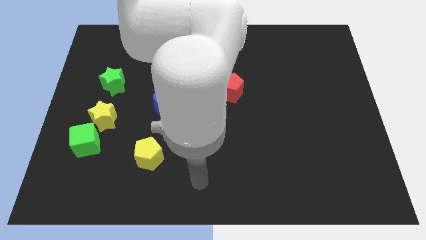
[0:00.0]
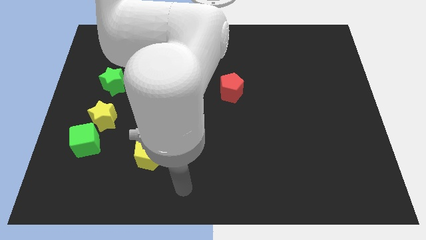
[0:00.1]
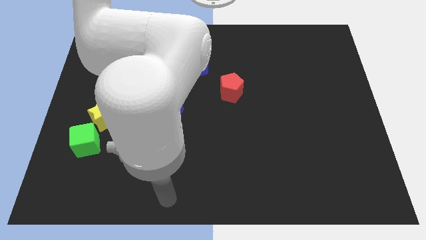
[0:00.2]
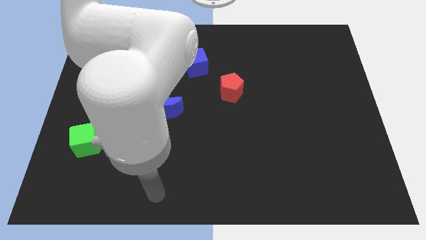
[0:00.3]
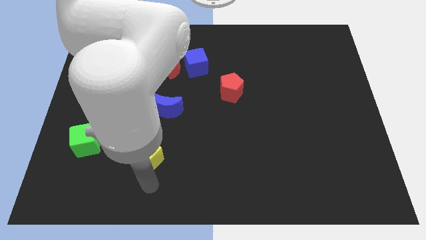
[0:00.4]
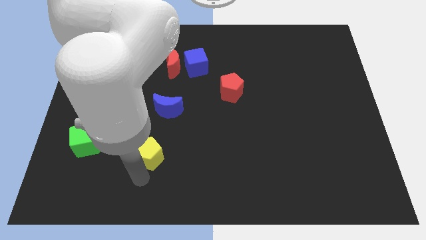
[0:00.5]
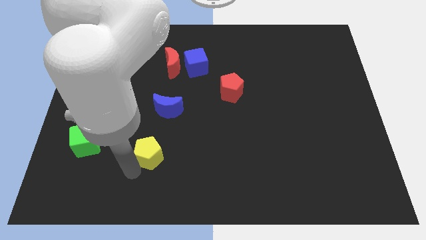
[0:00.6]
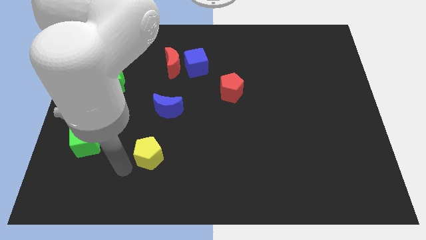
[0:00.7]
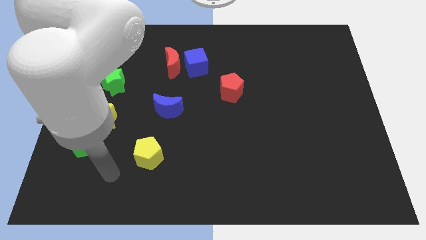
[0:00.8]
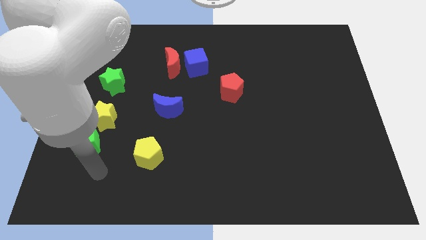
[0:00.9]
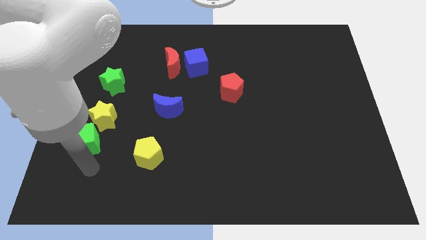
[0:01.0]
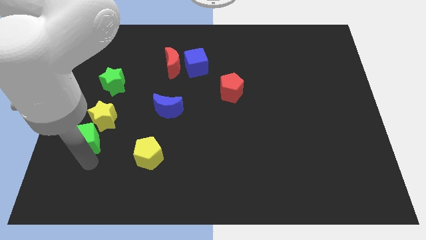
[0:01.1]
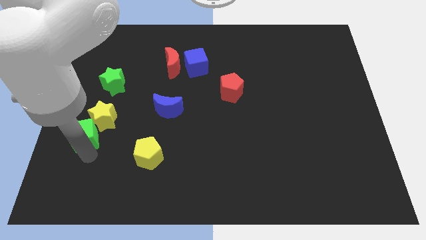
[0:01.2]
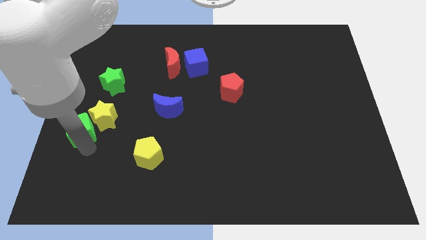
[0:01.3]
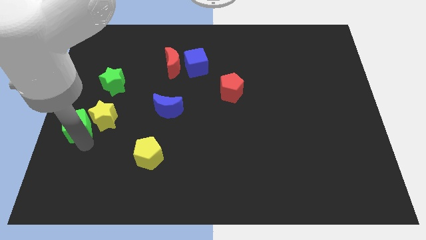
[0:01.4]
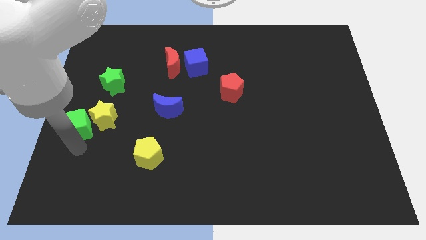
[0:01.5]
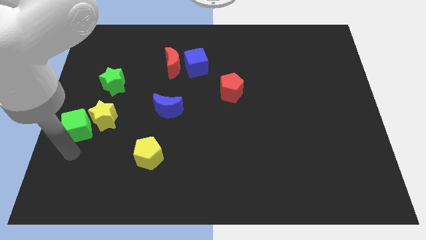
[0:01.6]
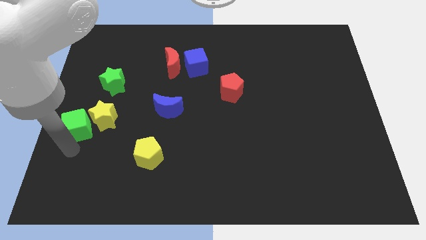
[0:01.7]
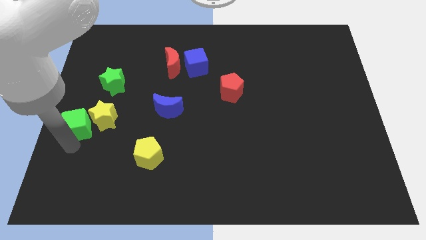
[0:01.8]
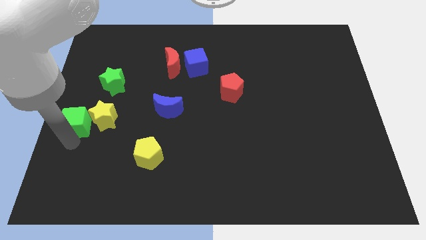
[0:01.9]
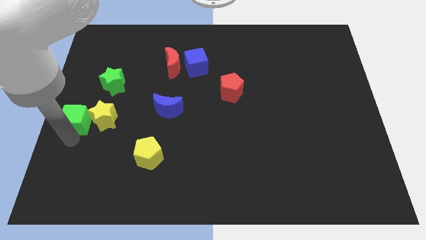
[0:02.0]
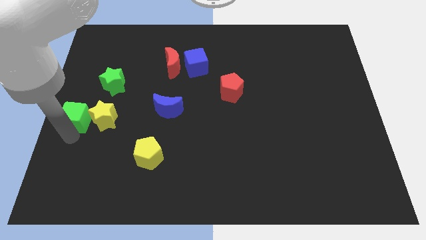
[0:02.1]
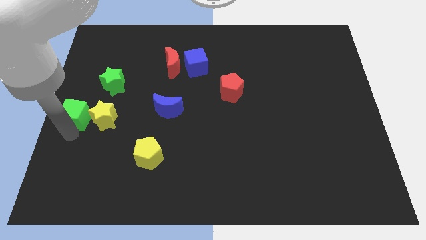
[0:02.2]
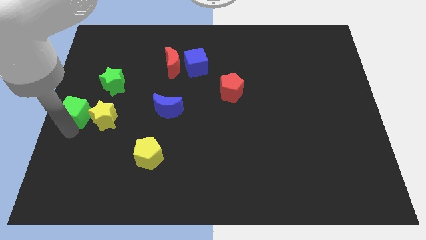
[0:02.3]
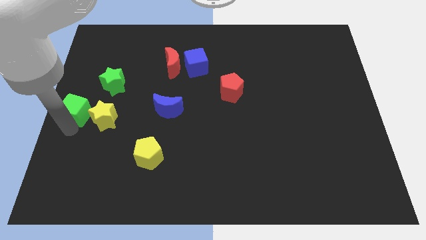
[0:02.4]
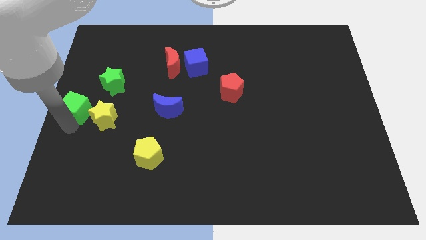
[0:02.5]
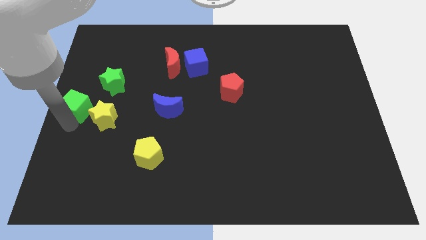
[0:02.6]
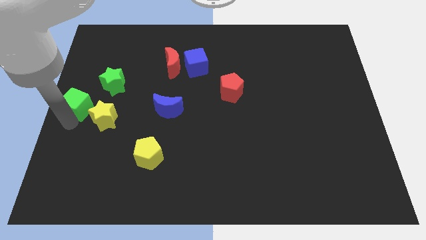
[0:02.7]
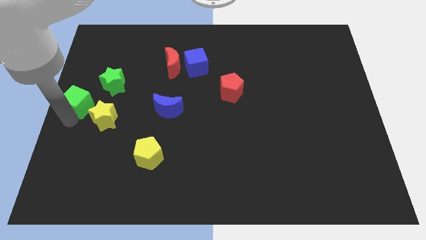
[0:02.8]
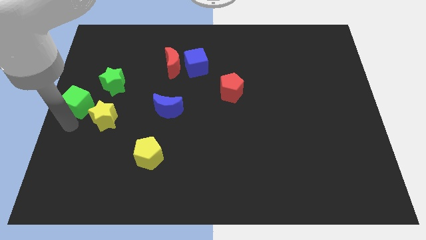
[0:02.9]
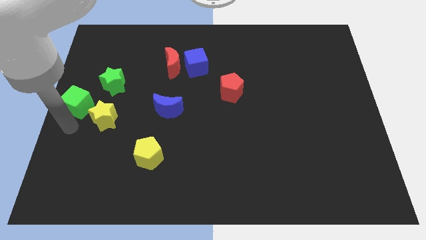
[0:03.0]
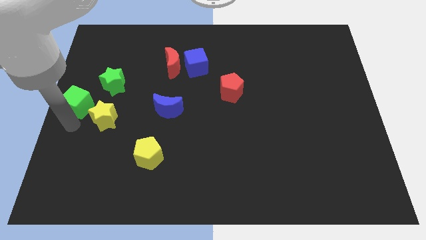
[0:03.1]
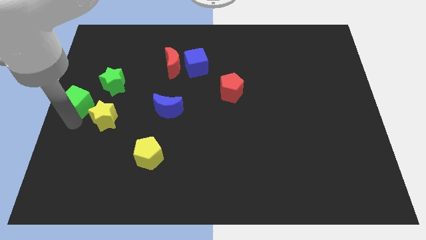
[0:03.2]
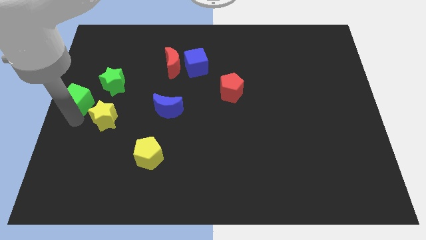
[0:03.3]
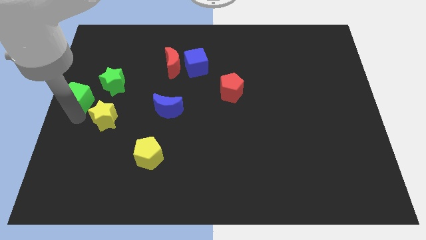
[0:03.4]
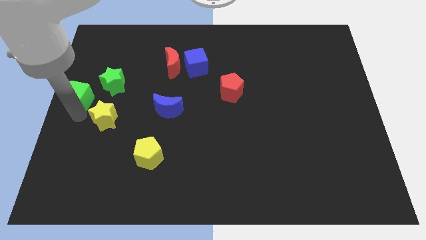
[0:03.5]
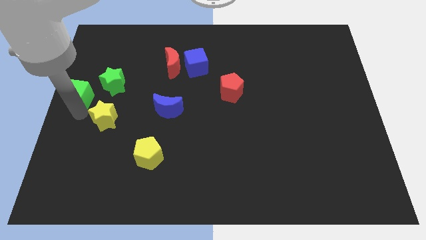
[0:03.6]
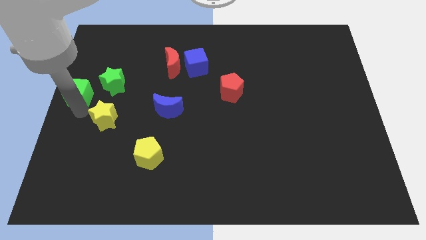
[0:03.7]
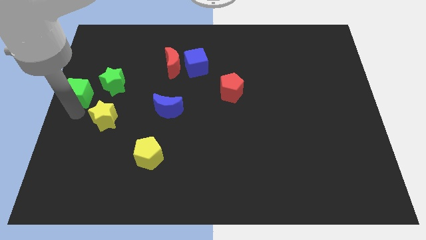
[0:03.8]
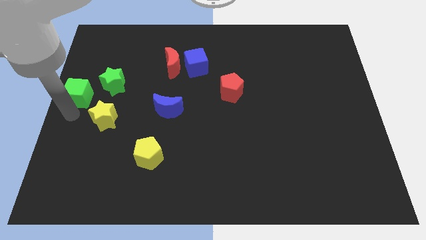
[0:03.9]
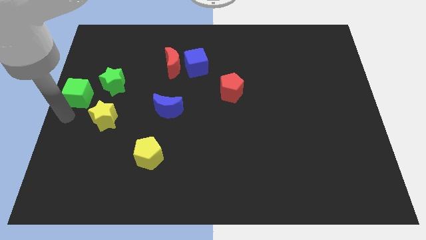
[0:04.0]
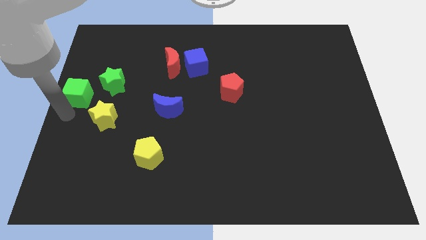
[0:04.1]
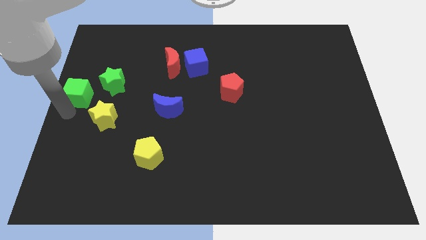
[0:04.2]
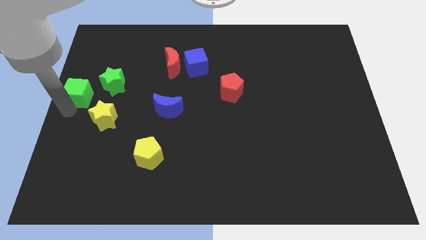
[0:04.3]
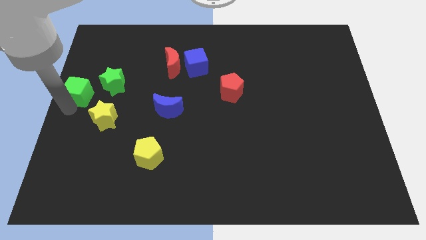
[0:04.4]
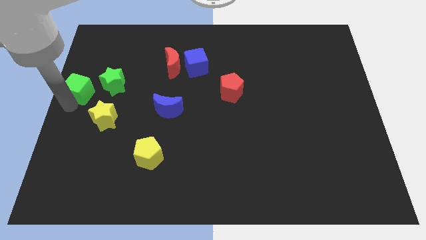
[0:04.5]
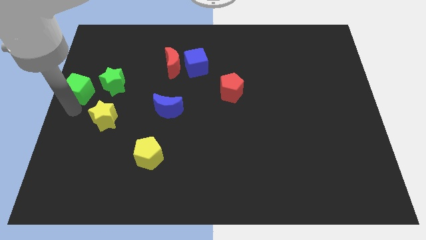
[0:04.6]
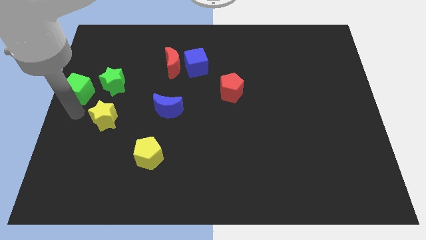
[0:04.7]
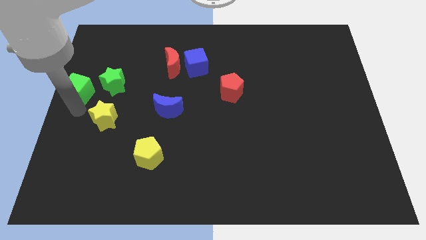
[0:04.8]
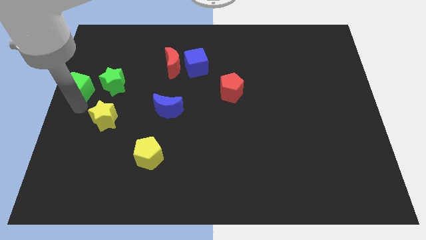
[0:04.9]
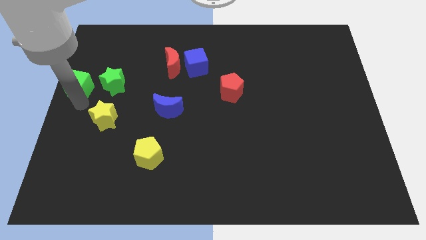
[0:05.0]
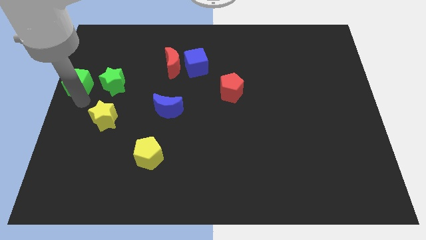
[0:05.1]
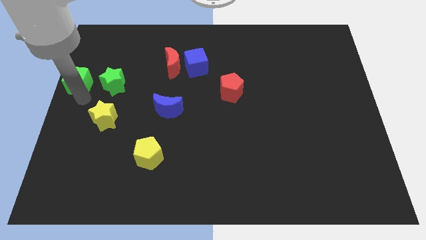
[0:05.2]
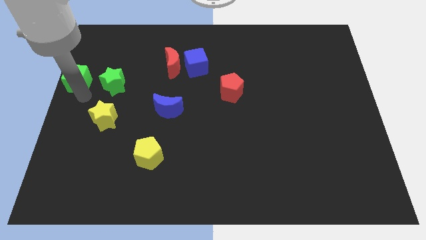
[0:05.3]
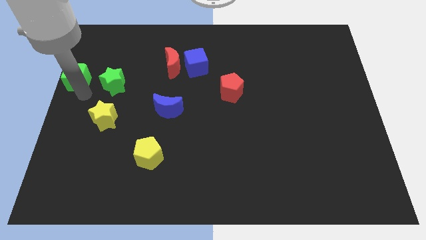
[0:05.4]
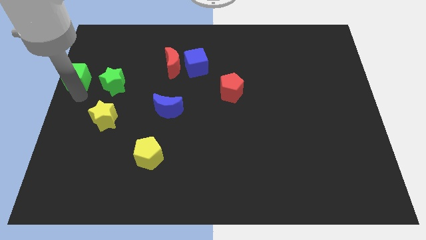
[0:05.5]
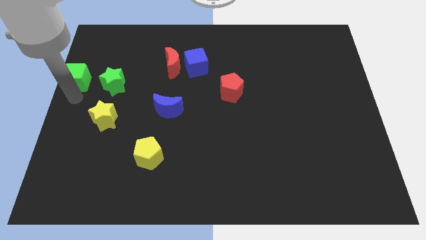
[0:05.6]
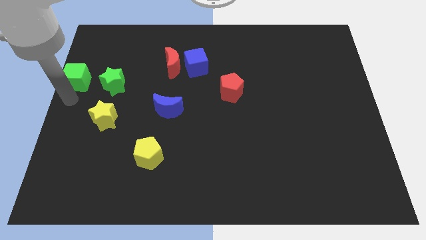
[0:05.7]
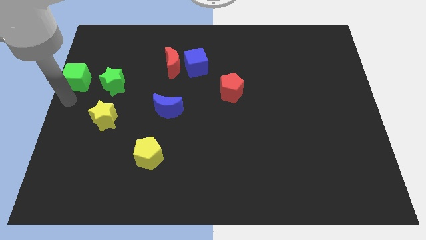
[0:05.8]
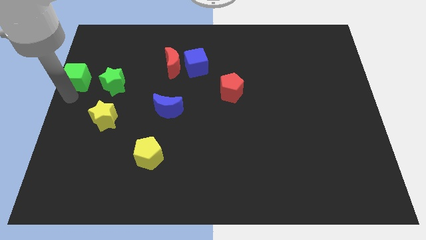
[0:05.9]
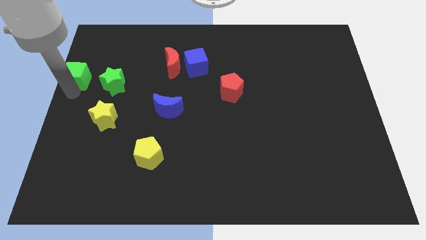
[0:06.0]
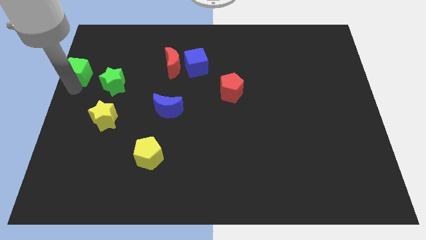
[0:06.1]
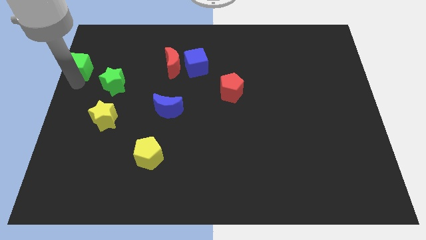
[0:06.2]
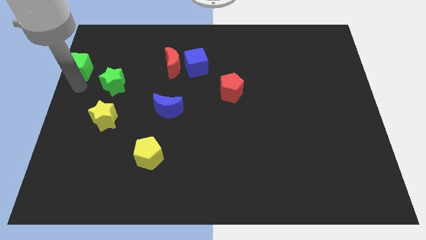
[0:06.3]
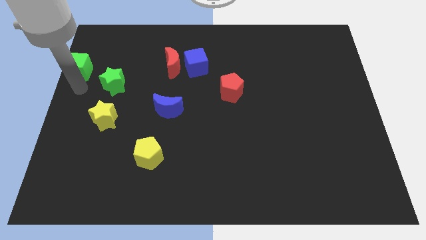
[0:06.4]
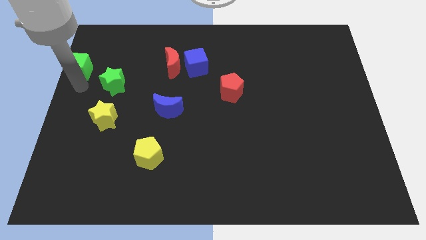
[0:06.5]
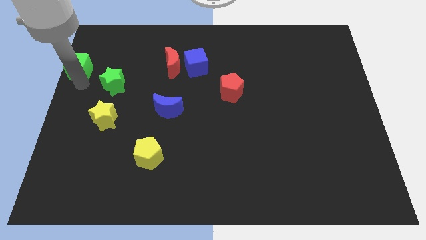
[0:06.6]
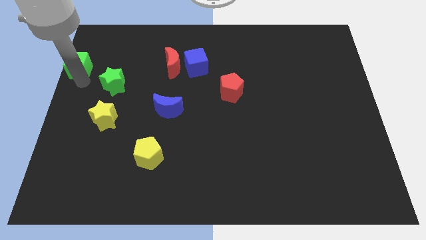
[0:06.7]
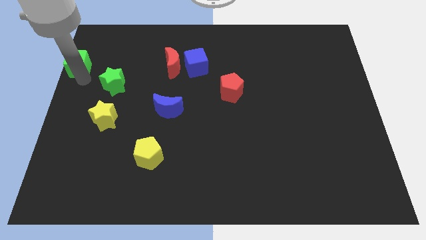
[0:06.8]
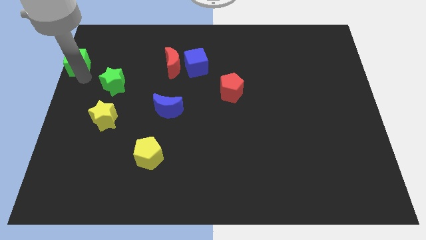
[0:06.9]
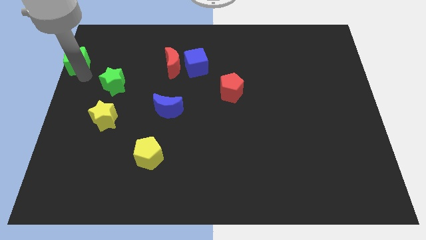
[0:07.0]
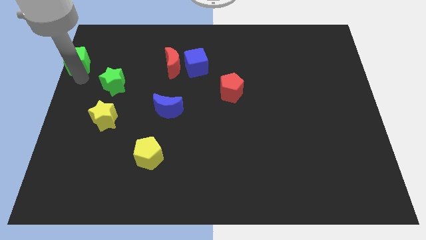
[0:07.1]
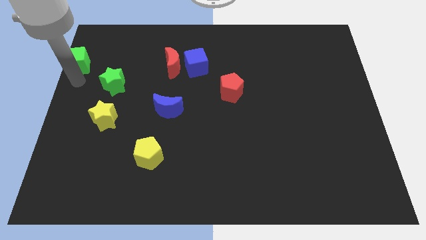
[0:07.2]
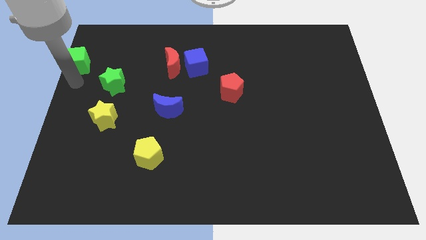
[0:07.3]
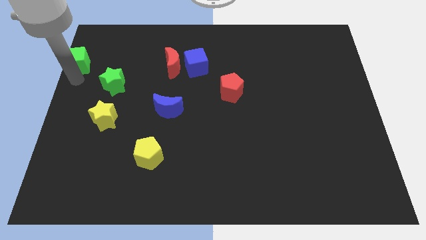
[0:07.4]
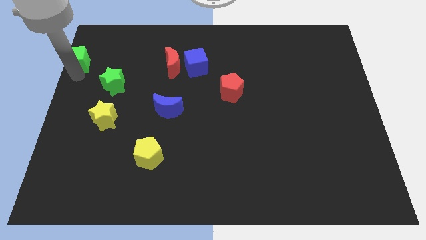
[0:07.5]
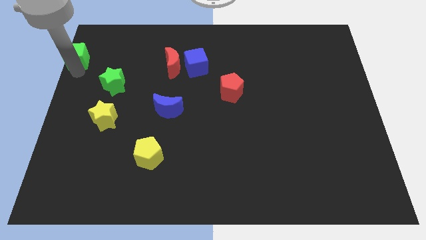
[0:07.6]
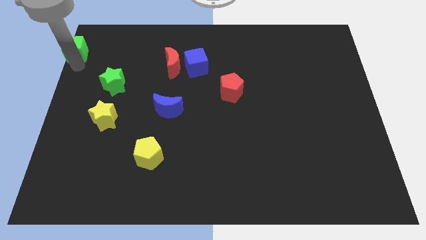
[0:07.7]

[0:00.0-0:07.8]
put the green cube to the top left of the board
